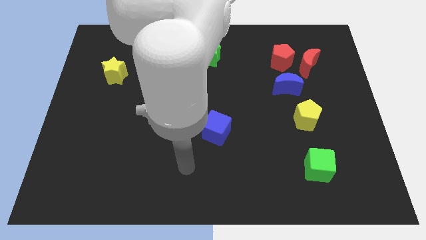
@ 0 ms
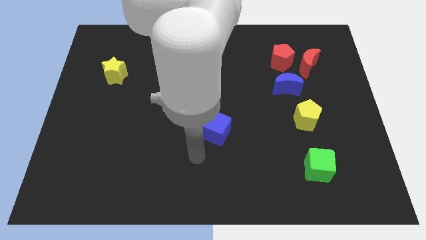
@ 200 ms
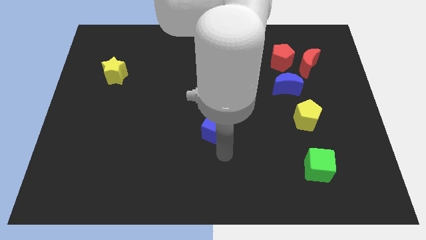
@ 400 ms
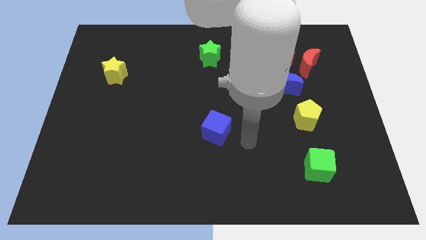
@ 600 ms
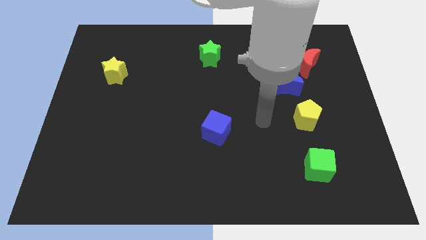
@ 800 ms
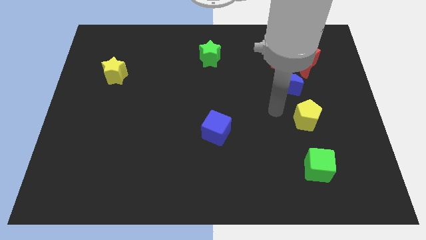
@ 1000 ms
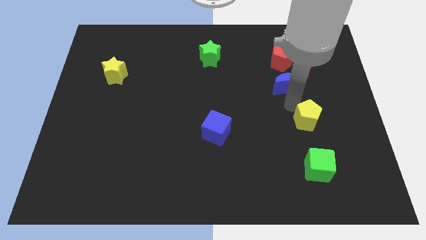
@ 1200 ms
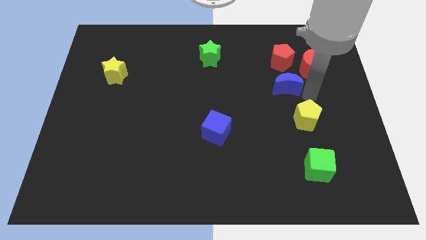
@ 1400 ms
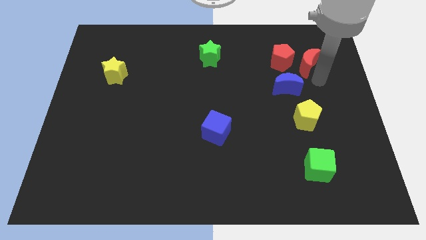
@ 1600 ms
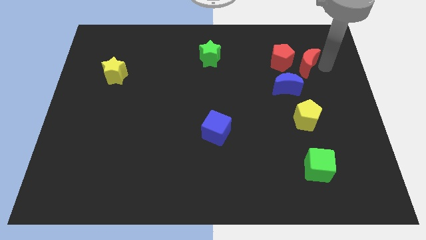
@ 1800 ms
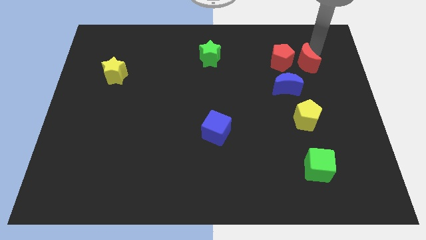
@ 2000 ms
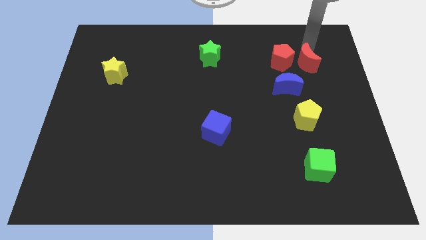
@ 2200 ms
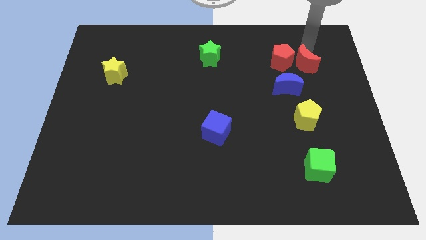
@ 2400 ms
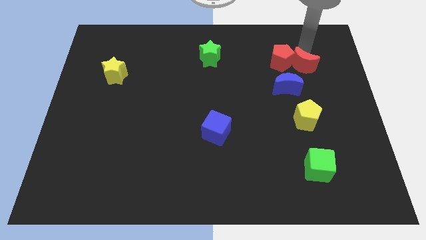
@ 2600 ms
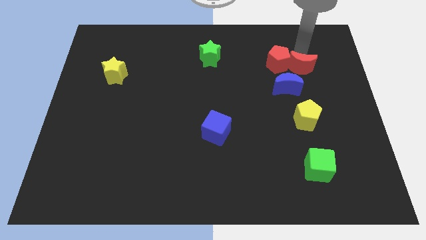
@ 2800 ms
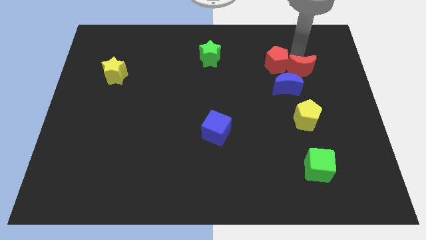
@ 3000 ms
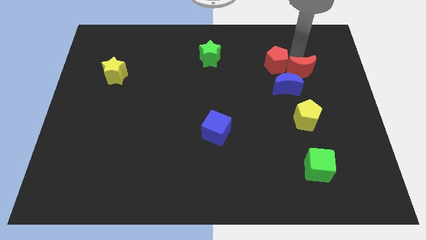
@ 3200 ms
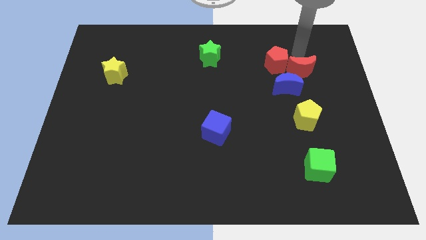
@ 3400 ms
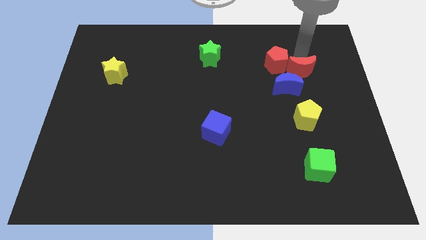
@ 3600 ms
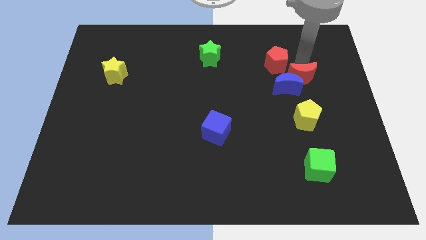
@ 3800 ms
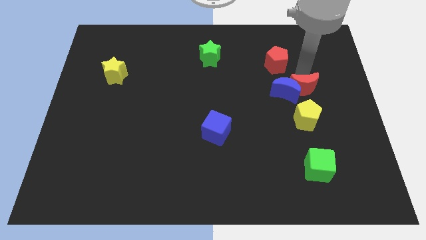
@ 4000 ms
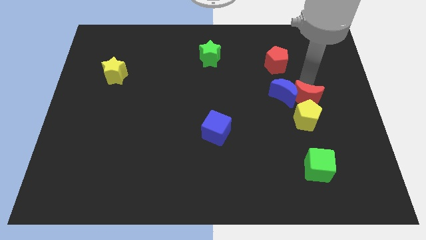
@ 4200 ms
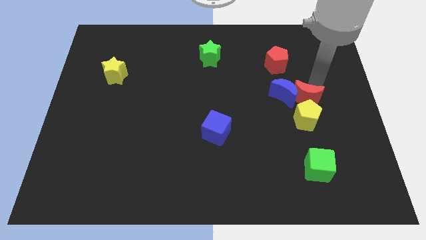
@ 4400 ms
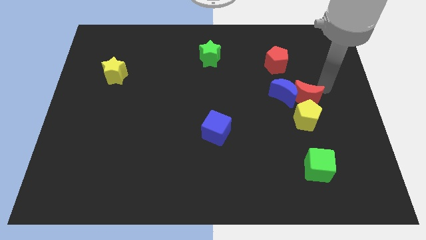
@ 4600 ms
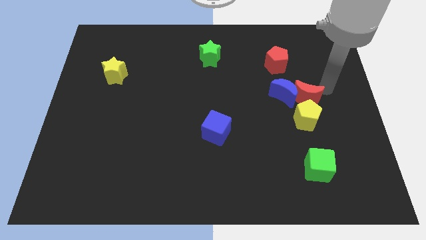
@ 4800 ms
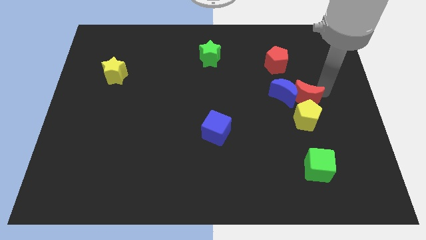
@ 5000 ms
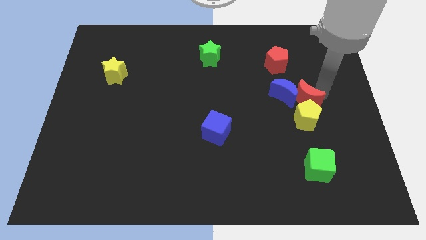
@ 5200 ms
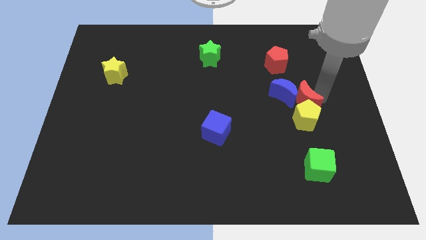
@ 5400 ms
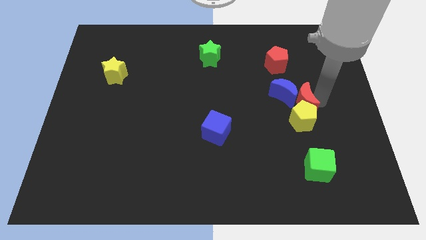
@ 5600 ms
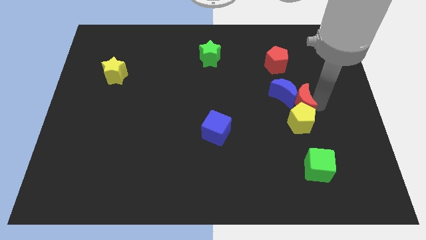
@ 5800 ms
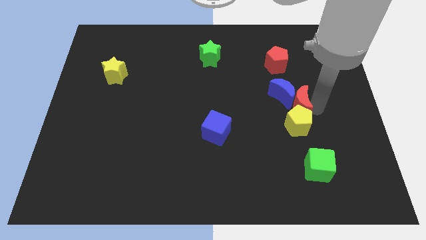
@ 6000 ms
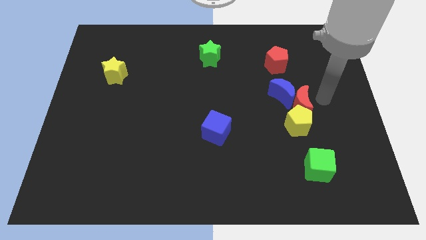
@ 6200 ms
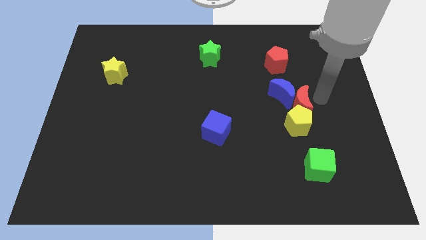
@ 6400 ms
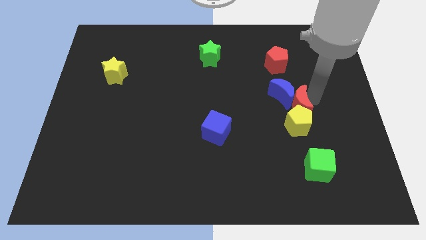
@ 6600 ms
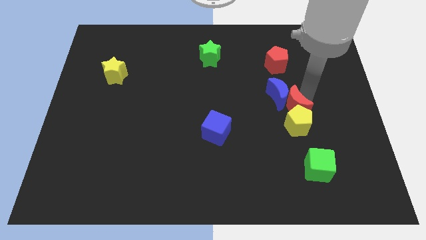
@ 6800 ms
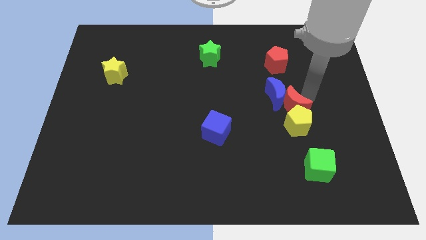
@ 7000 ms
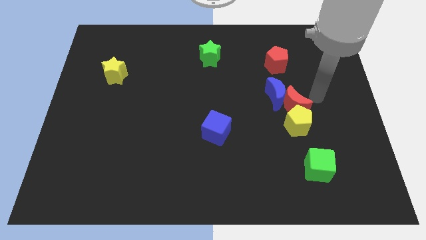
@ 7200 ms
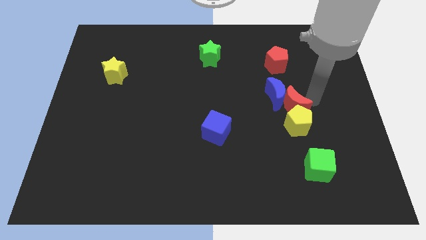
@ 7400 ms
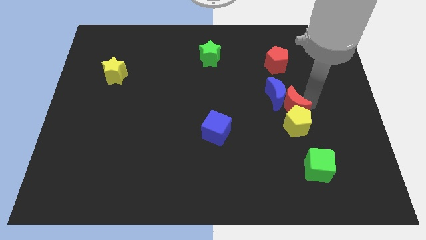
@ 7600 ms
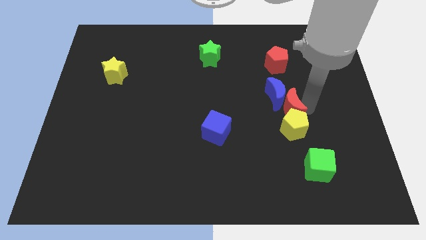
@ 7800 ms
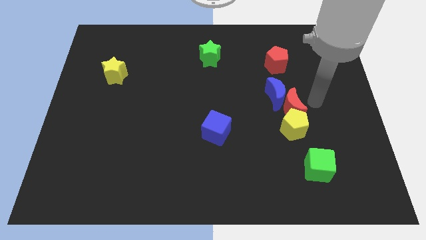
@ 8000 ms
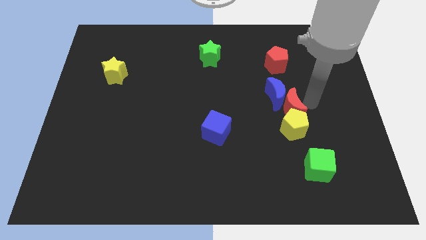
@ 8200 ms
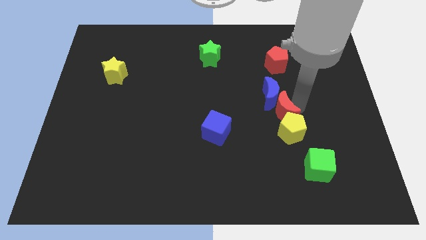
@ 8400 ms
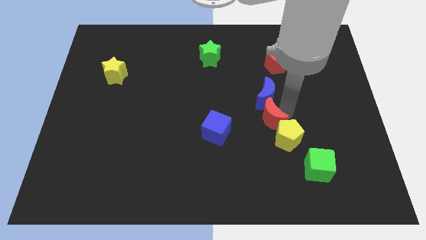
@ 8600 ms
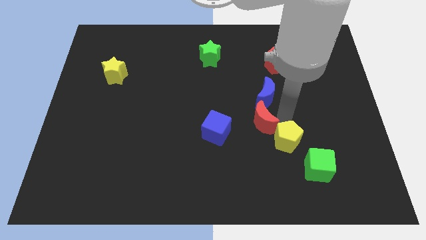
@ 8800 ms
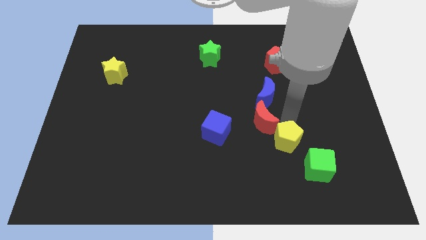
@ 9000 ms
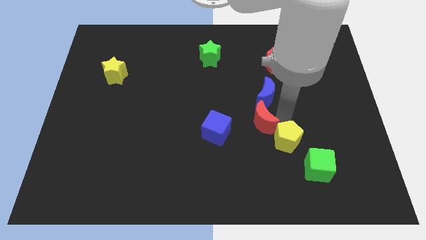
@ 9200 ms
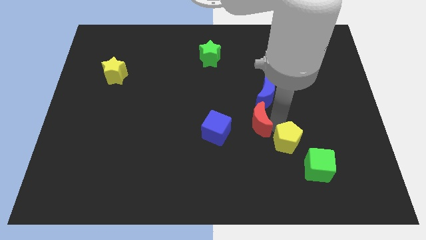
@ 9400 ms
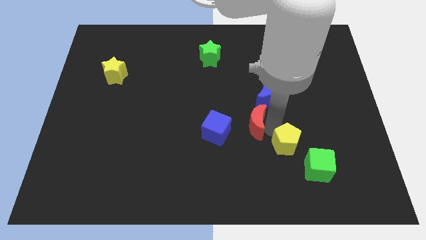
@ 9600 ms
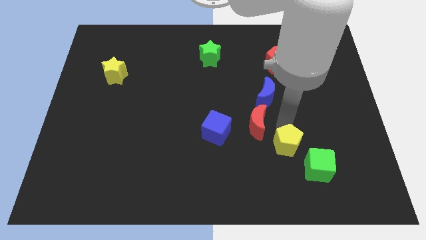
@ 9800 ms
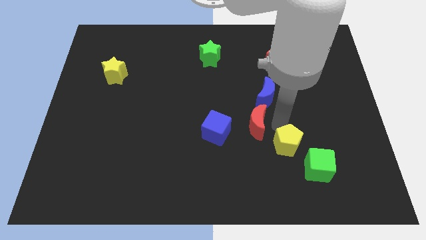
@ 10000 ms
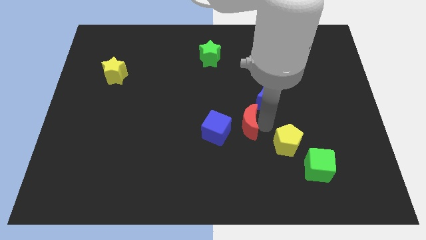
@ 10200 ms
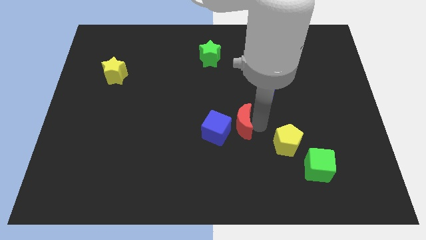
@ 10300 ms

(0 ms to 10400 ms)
put the red moon to the blue cube

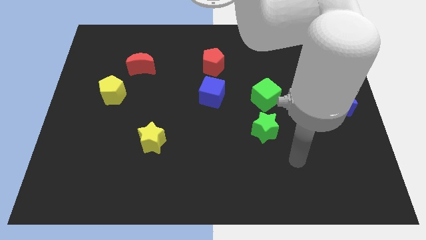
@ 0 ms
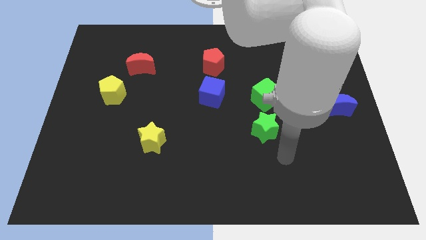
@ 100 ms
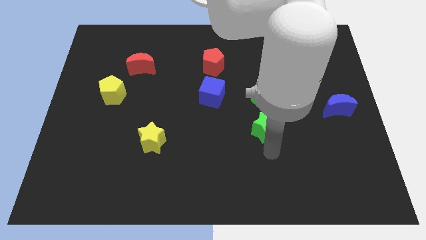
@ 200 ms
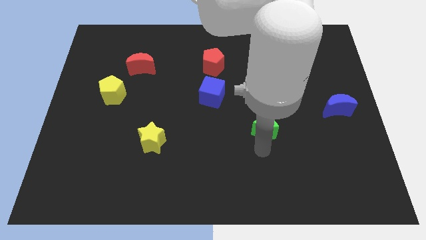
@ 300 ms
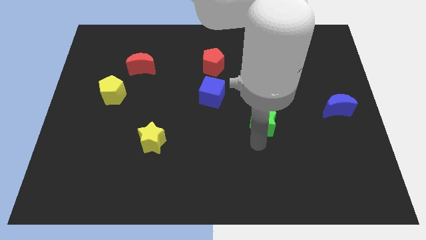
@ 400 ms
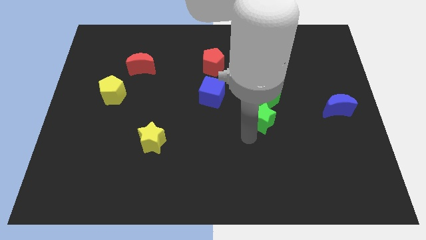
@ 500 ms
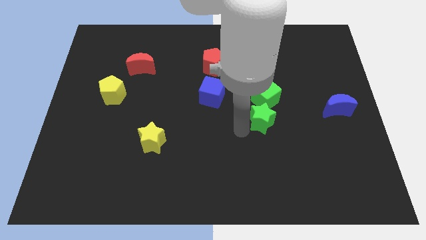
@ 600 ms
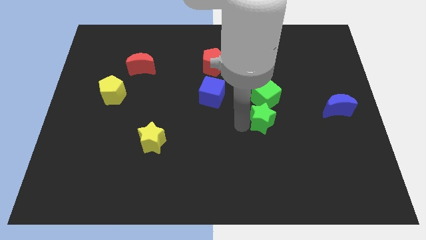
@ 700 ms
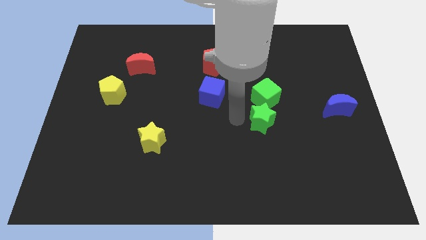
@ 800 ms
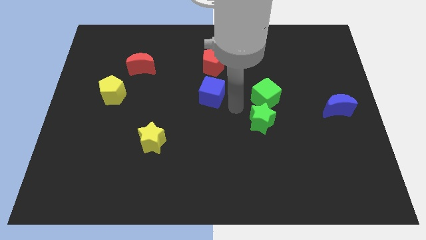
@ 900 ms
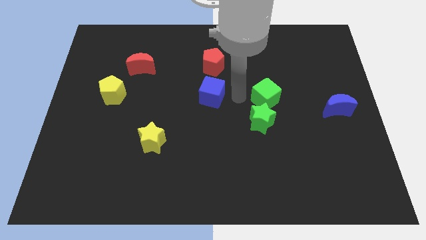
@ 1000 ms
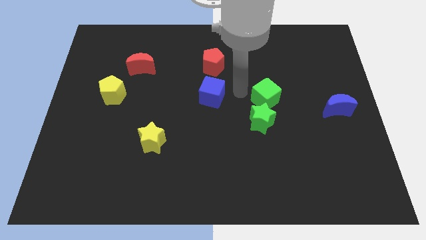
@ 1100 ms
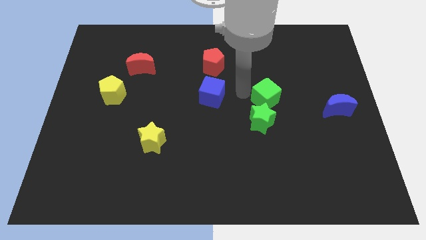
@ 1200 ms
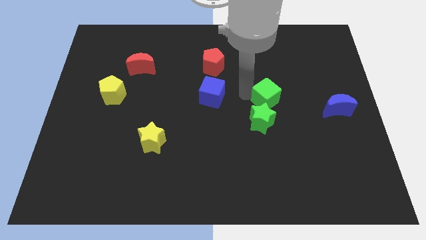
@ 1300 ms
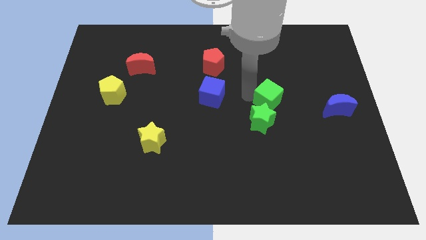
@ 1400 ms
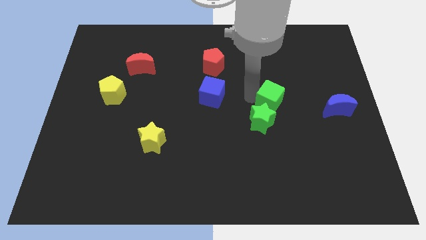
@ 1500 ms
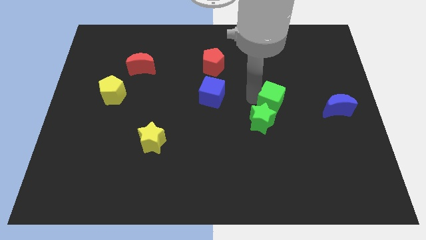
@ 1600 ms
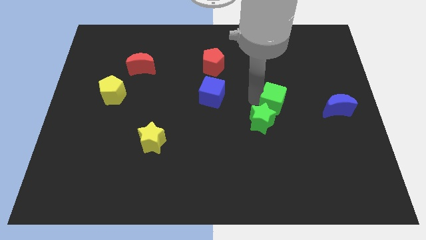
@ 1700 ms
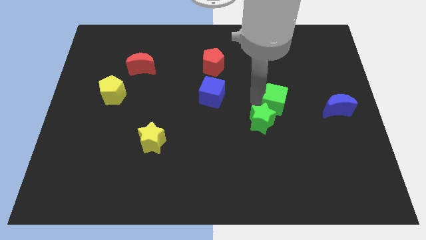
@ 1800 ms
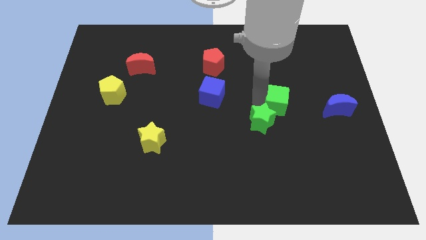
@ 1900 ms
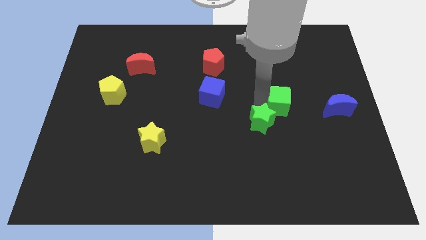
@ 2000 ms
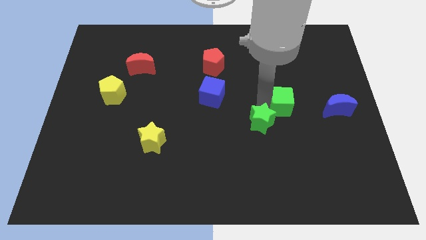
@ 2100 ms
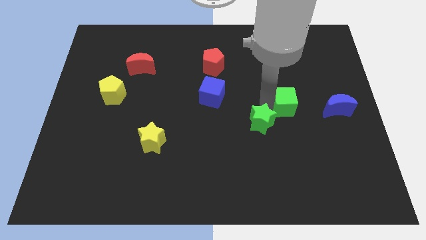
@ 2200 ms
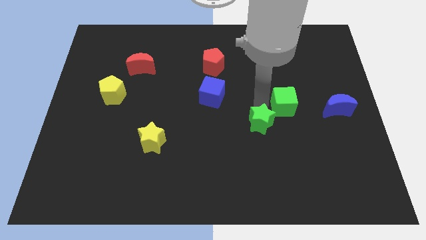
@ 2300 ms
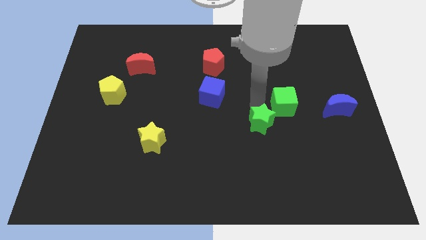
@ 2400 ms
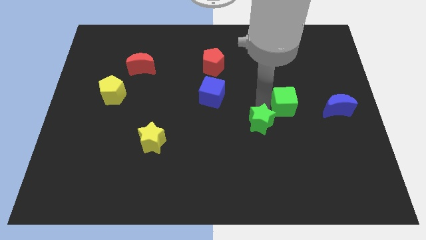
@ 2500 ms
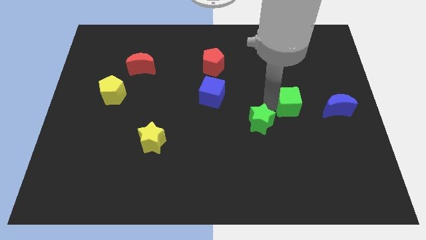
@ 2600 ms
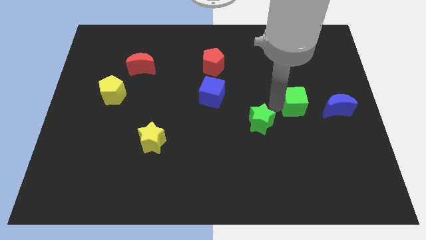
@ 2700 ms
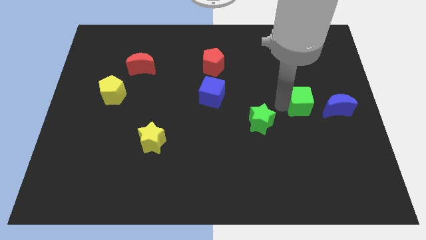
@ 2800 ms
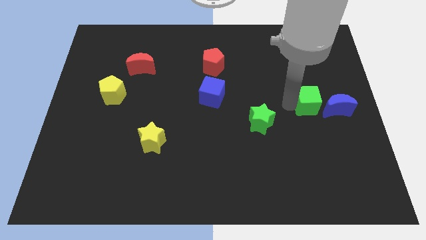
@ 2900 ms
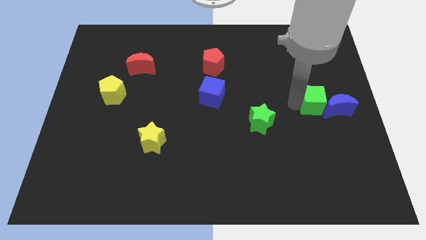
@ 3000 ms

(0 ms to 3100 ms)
push the green cube to the blue moon

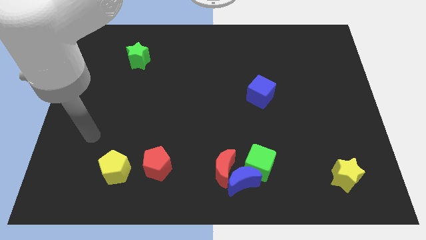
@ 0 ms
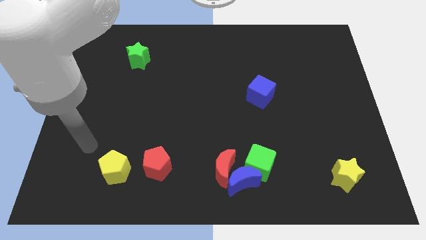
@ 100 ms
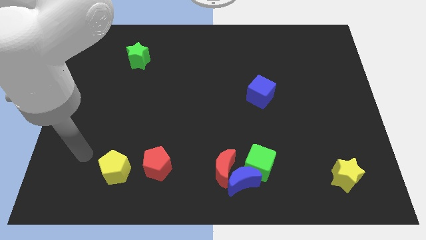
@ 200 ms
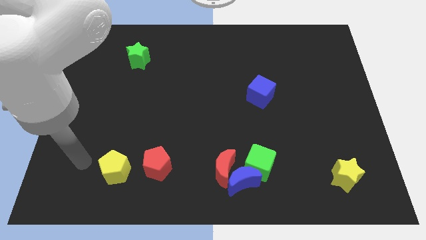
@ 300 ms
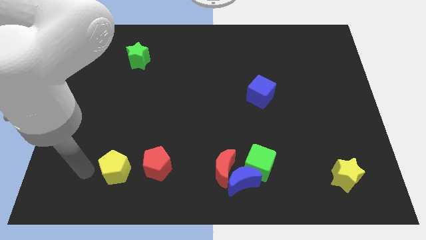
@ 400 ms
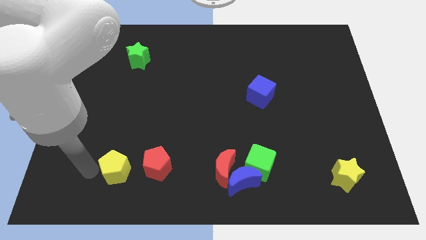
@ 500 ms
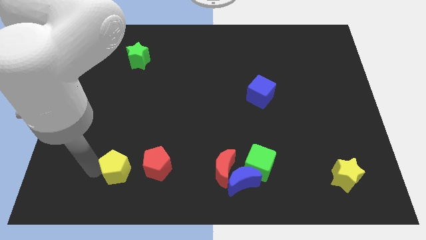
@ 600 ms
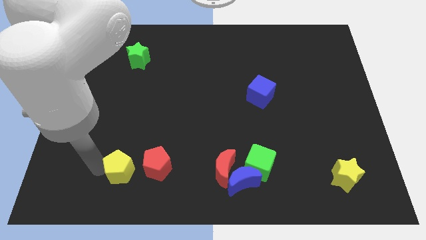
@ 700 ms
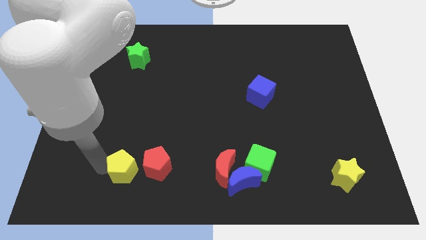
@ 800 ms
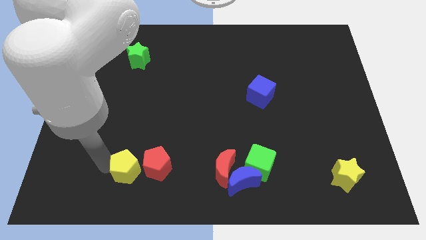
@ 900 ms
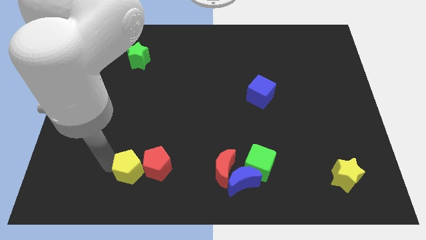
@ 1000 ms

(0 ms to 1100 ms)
slide the yellow pentagon towards the red pentagon
